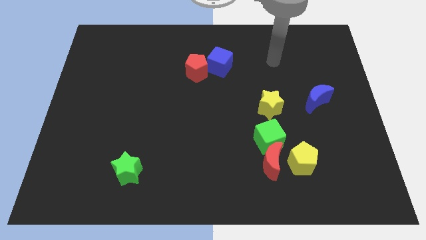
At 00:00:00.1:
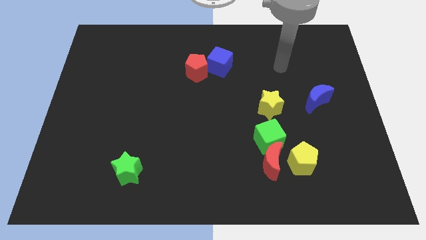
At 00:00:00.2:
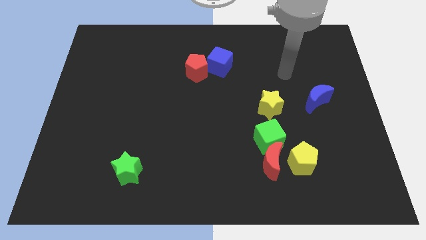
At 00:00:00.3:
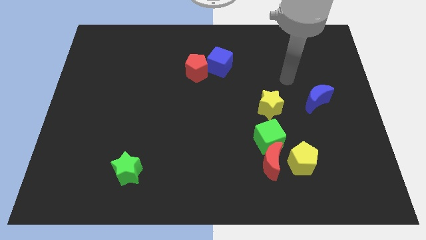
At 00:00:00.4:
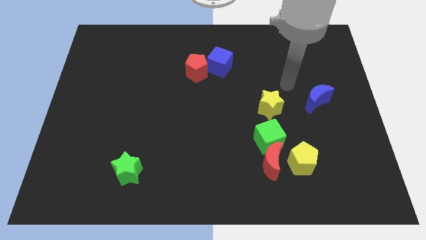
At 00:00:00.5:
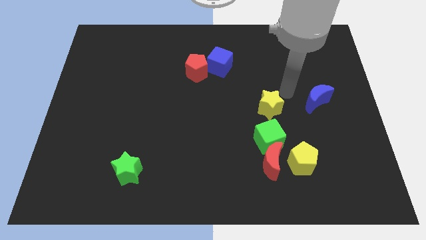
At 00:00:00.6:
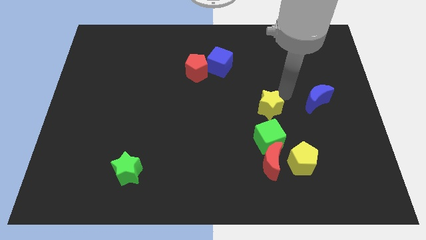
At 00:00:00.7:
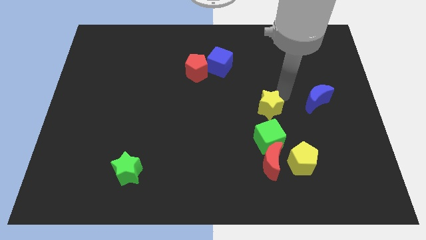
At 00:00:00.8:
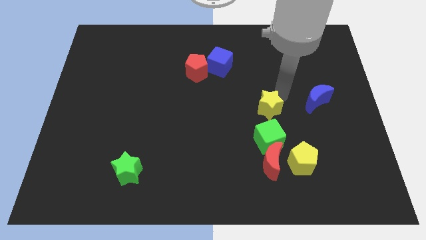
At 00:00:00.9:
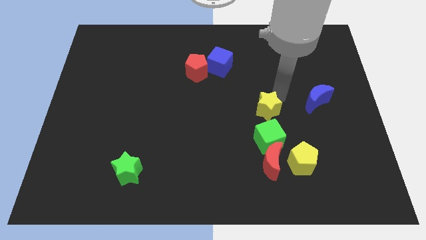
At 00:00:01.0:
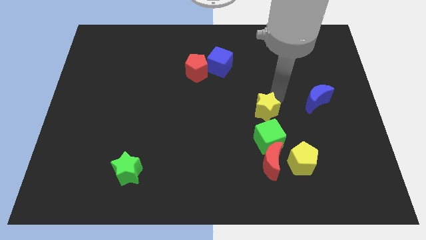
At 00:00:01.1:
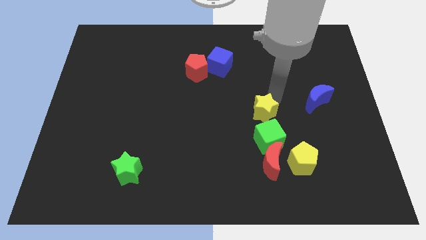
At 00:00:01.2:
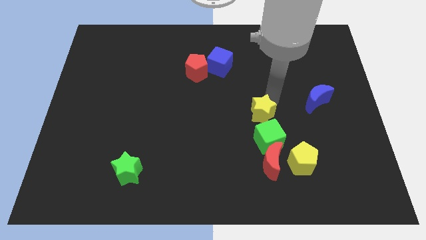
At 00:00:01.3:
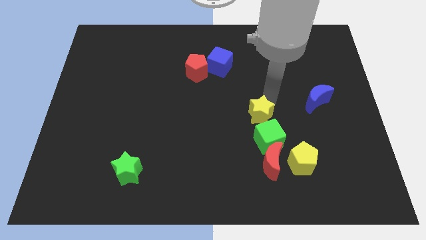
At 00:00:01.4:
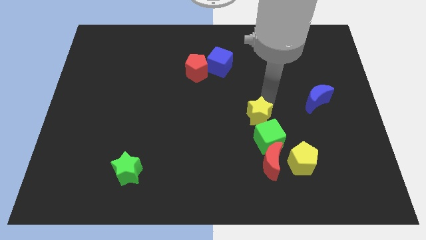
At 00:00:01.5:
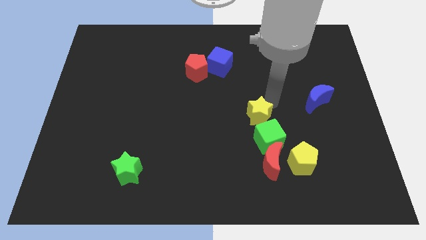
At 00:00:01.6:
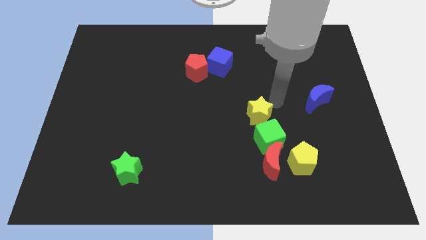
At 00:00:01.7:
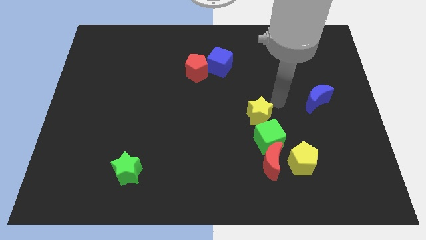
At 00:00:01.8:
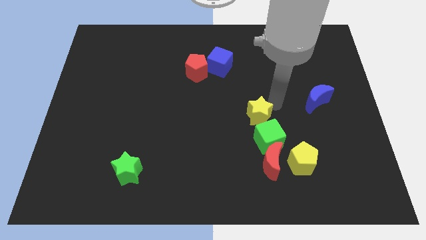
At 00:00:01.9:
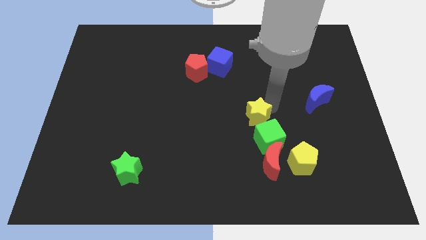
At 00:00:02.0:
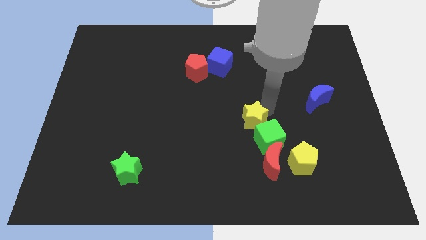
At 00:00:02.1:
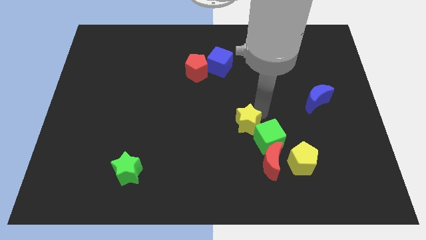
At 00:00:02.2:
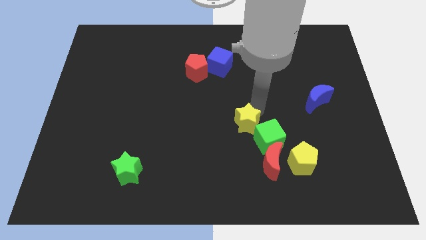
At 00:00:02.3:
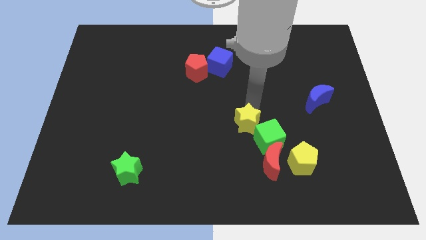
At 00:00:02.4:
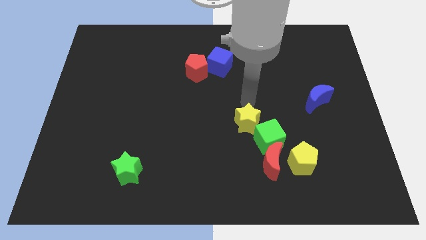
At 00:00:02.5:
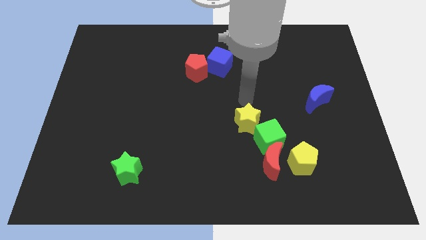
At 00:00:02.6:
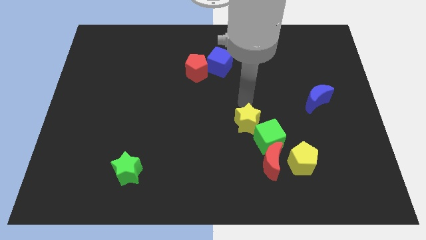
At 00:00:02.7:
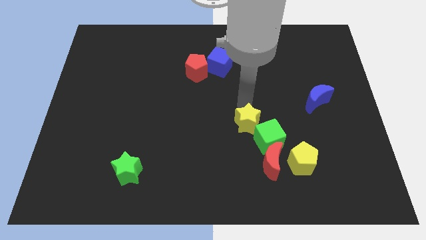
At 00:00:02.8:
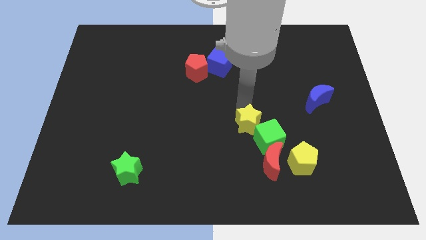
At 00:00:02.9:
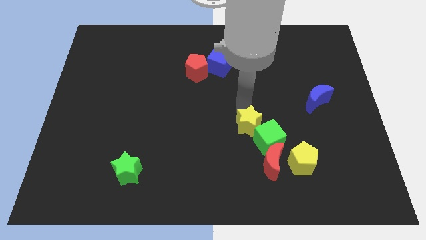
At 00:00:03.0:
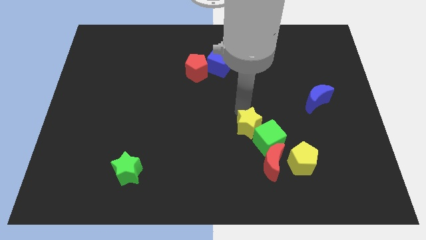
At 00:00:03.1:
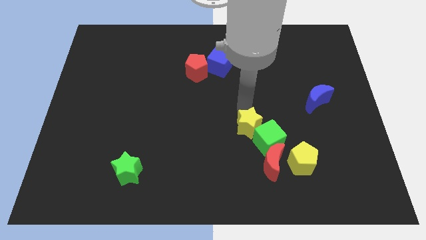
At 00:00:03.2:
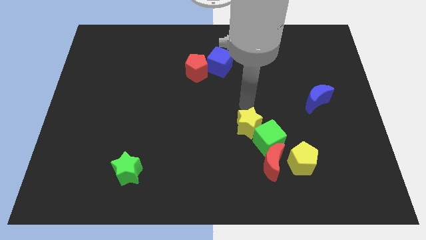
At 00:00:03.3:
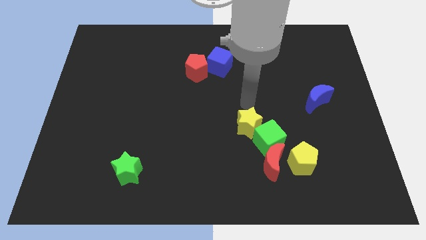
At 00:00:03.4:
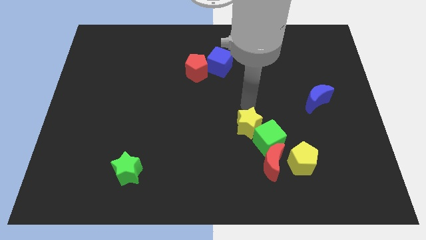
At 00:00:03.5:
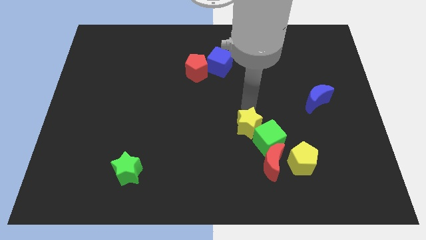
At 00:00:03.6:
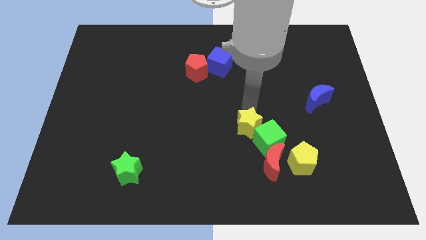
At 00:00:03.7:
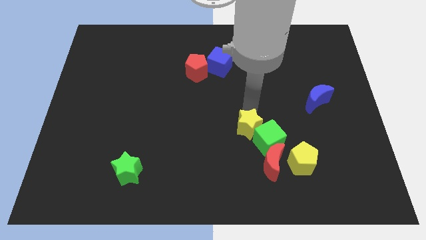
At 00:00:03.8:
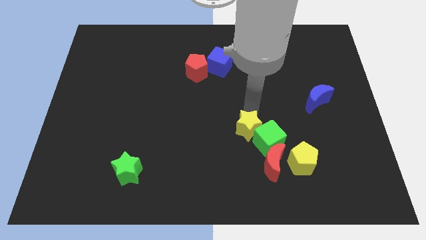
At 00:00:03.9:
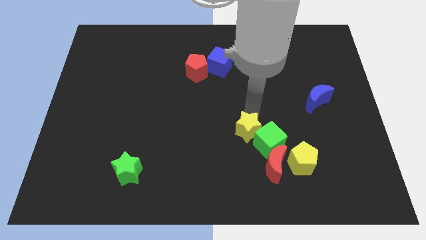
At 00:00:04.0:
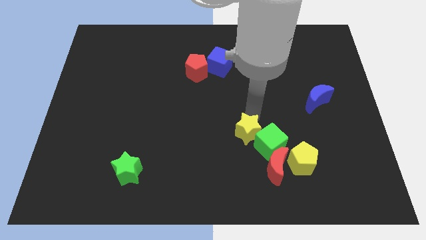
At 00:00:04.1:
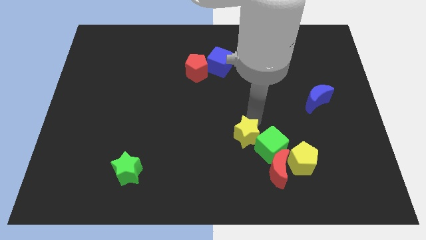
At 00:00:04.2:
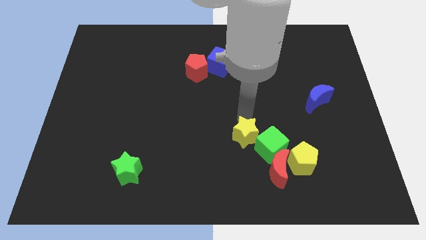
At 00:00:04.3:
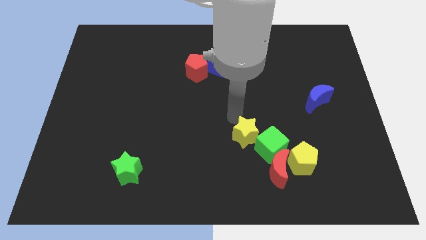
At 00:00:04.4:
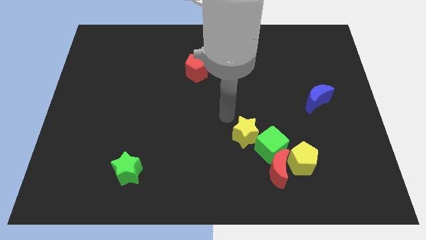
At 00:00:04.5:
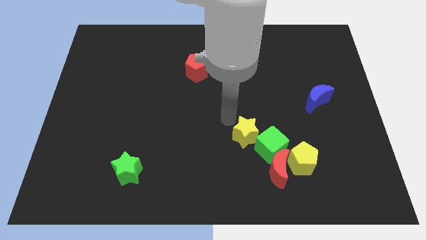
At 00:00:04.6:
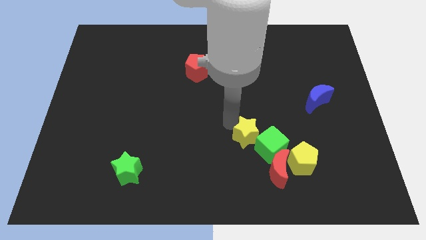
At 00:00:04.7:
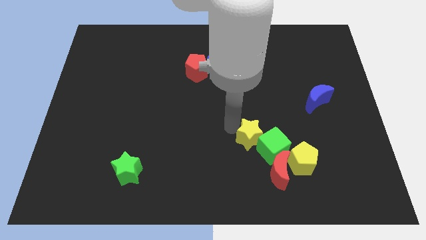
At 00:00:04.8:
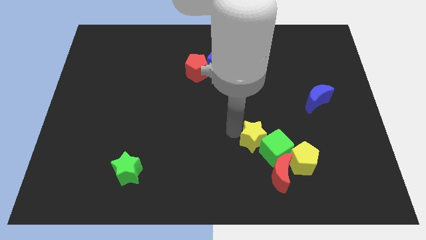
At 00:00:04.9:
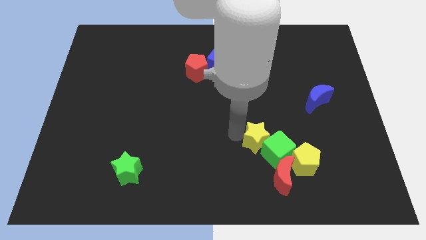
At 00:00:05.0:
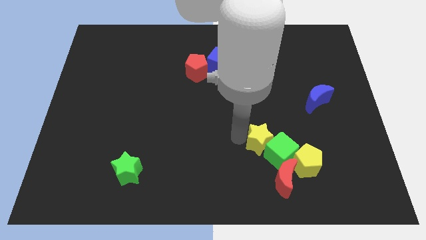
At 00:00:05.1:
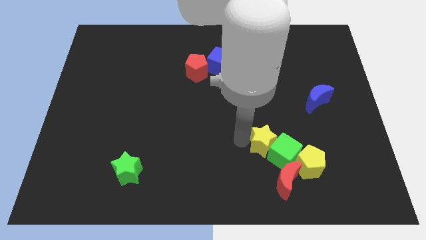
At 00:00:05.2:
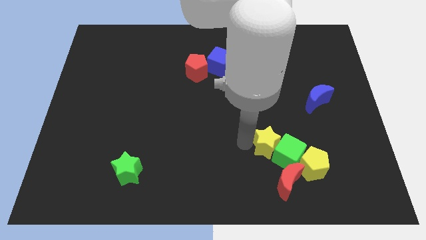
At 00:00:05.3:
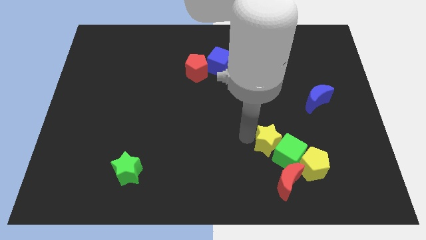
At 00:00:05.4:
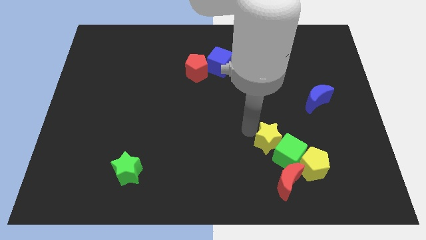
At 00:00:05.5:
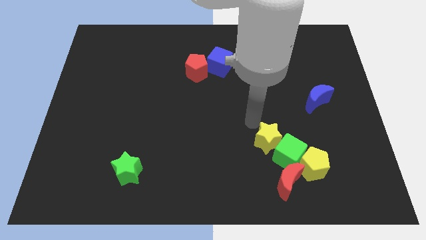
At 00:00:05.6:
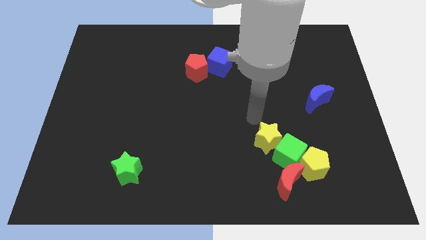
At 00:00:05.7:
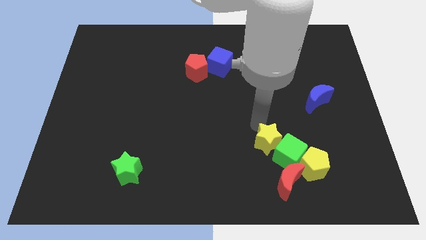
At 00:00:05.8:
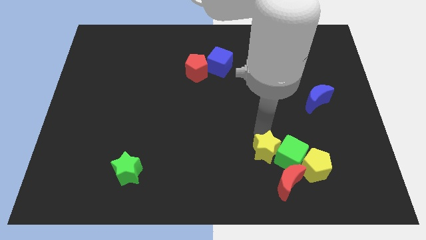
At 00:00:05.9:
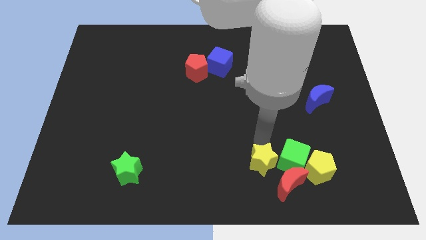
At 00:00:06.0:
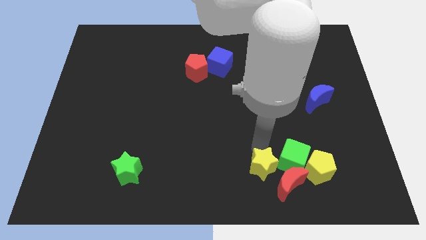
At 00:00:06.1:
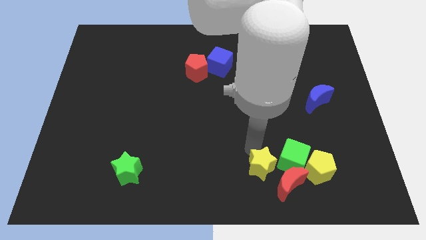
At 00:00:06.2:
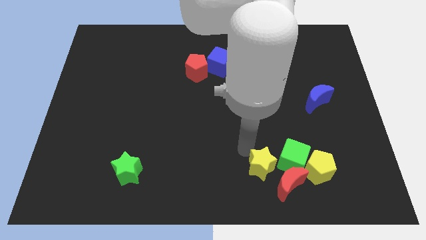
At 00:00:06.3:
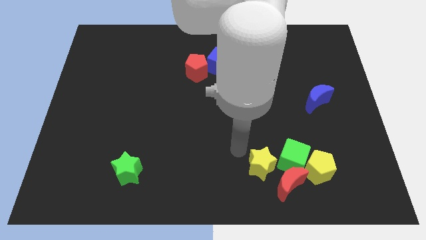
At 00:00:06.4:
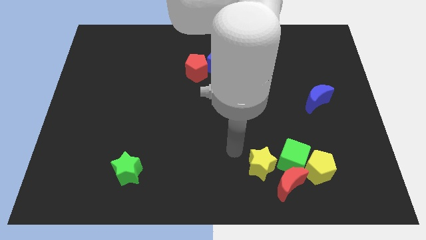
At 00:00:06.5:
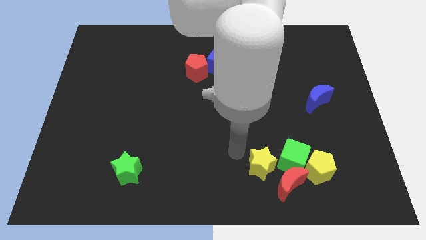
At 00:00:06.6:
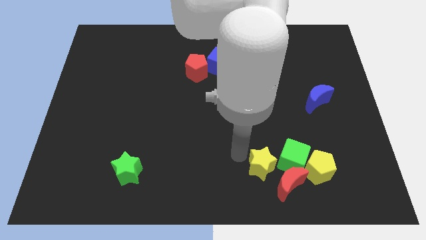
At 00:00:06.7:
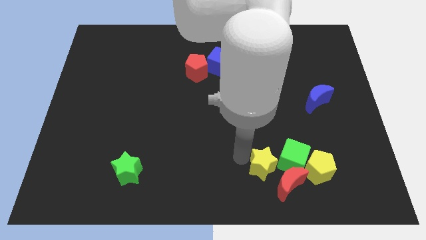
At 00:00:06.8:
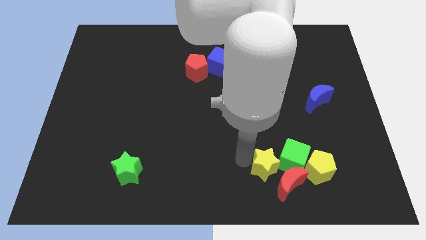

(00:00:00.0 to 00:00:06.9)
put the yellow star to the red moon

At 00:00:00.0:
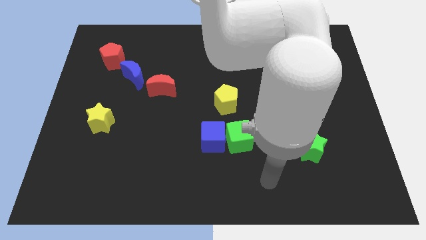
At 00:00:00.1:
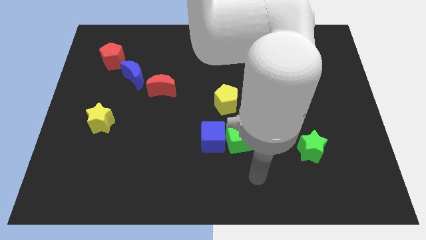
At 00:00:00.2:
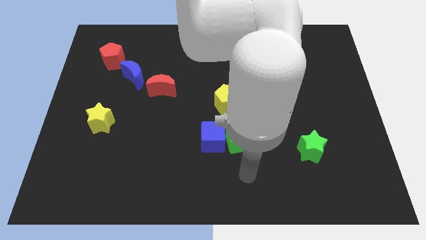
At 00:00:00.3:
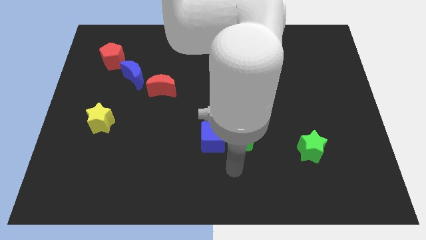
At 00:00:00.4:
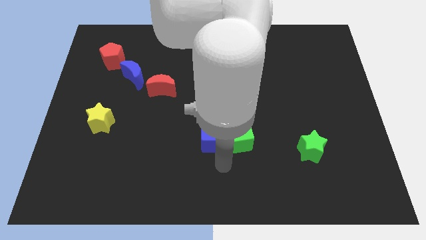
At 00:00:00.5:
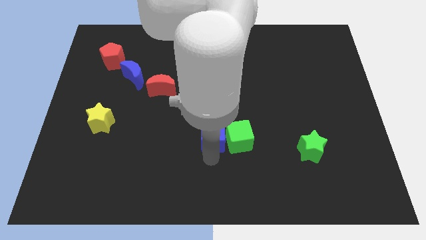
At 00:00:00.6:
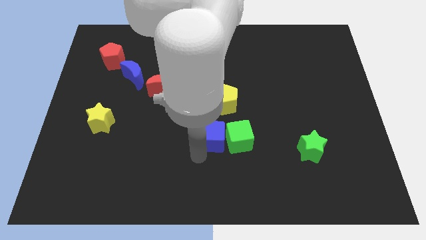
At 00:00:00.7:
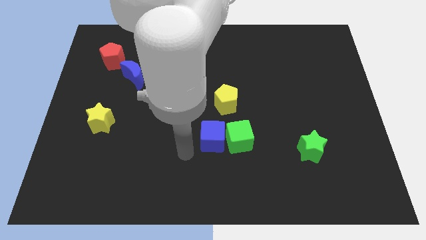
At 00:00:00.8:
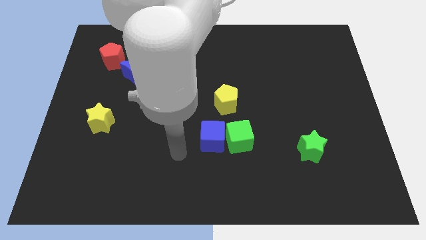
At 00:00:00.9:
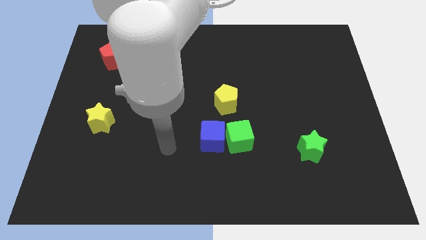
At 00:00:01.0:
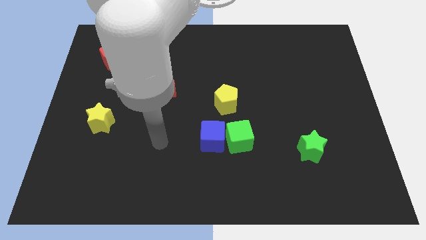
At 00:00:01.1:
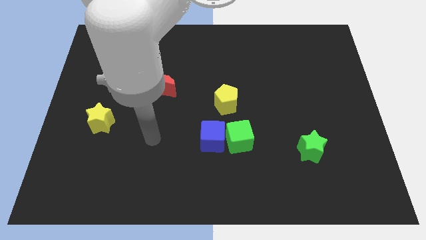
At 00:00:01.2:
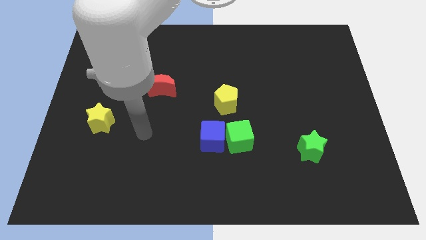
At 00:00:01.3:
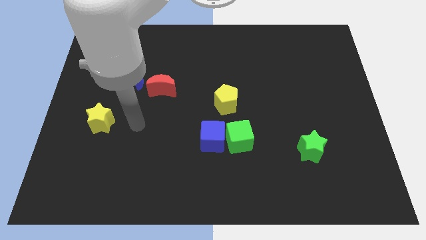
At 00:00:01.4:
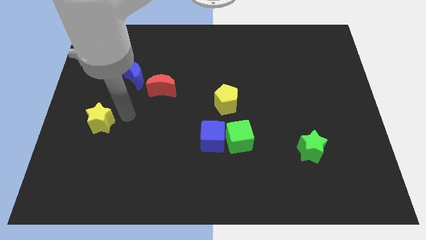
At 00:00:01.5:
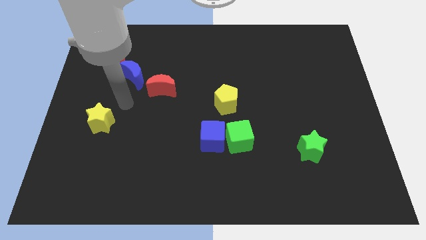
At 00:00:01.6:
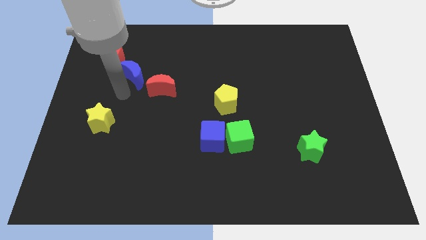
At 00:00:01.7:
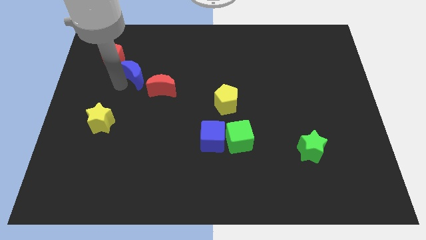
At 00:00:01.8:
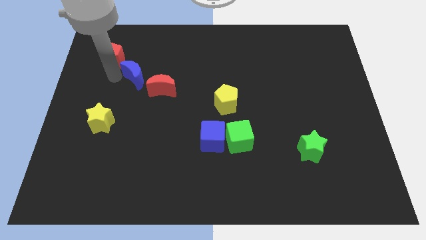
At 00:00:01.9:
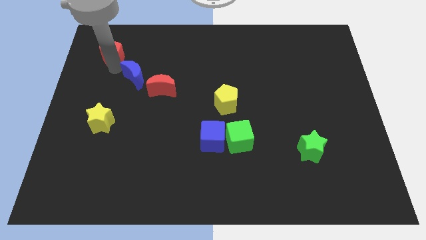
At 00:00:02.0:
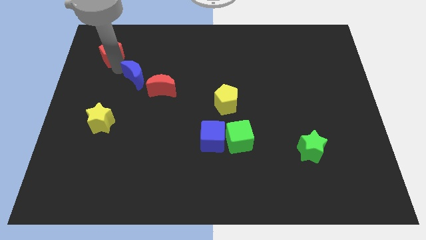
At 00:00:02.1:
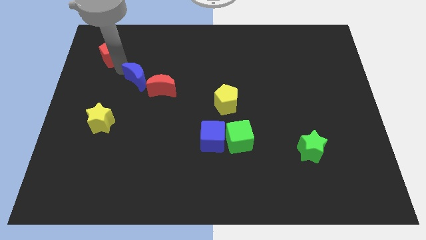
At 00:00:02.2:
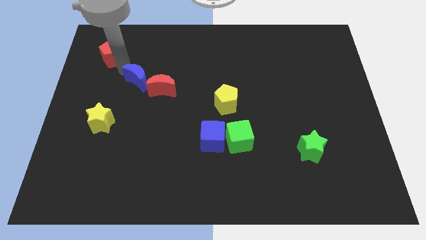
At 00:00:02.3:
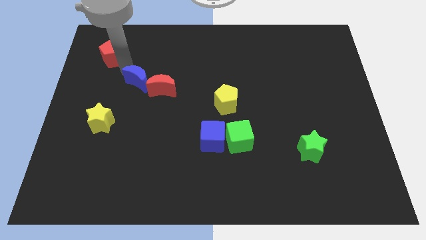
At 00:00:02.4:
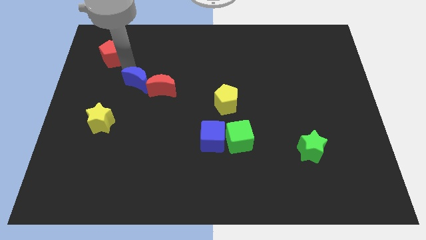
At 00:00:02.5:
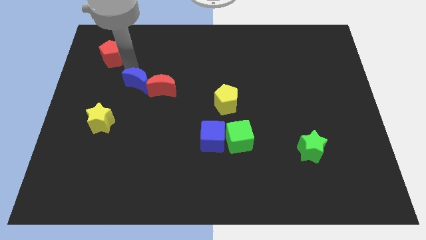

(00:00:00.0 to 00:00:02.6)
move the blue moon to the red moon
